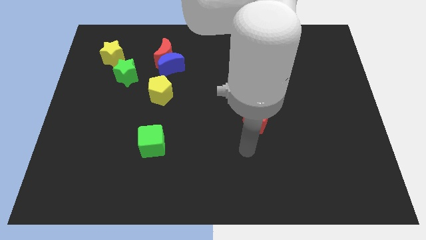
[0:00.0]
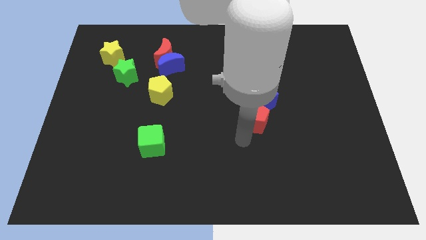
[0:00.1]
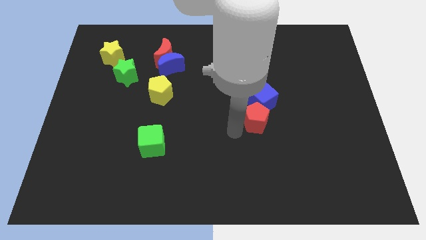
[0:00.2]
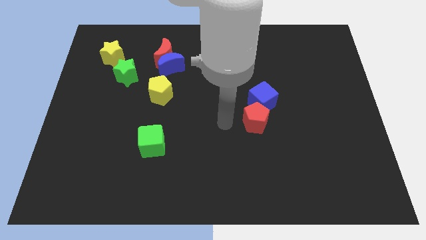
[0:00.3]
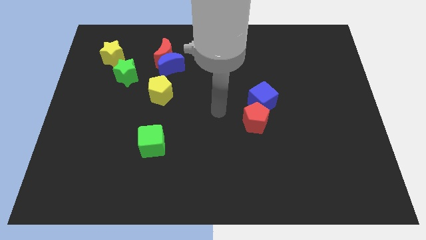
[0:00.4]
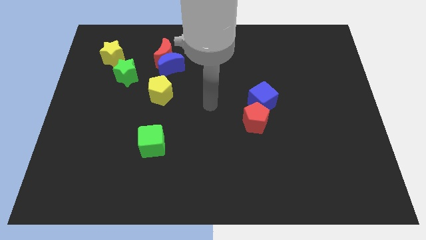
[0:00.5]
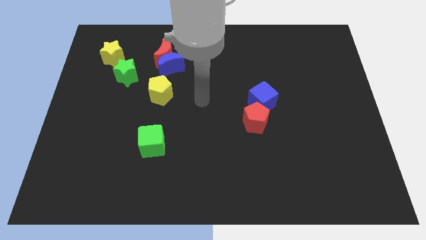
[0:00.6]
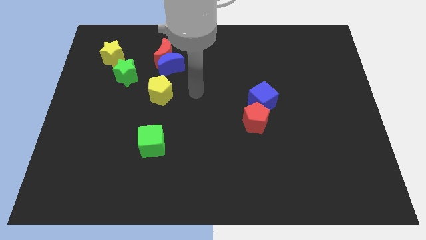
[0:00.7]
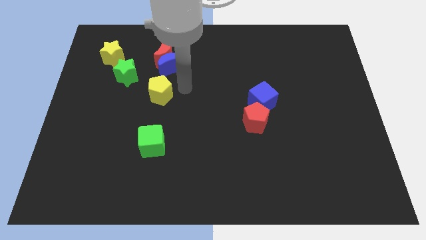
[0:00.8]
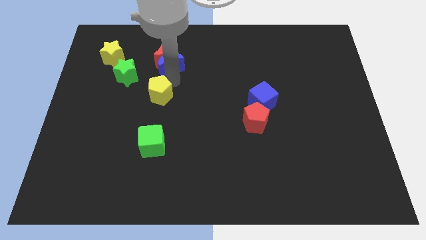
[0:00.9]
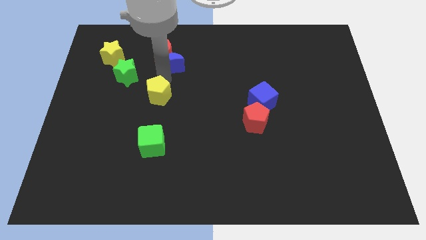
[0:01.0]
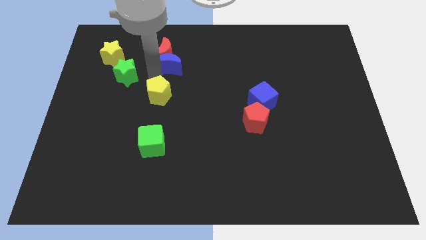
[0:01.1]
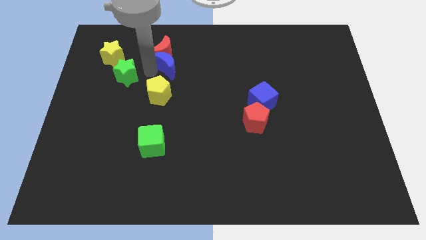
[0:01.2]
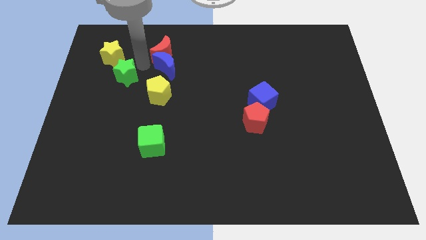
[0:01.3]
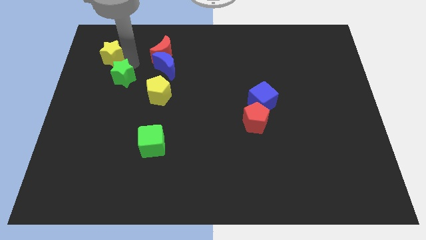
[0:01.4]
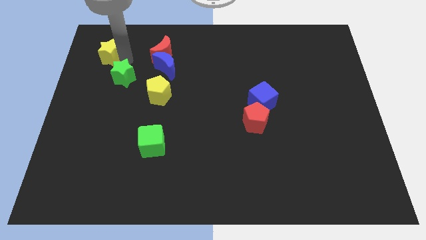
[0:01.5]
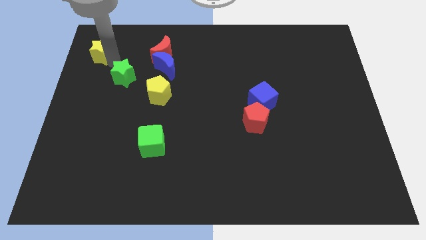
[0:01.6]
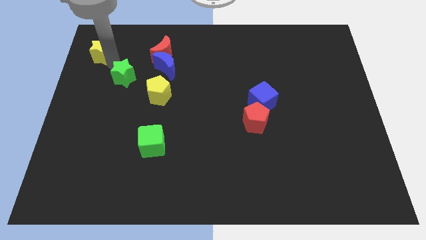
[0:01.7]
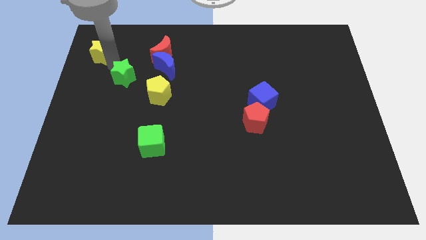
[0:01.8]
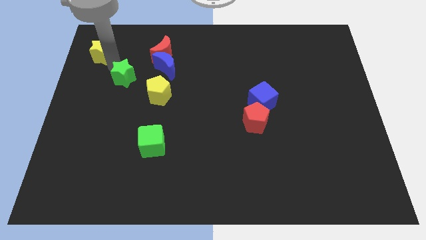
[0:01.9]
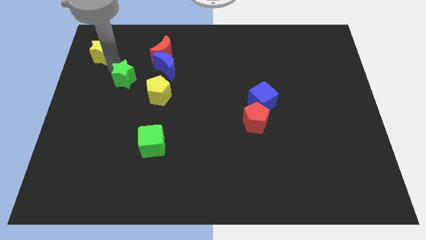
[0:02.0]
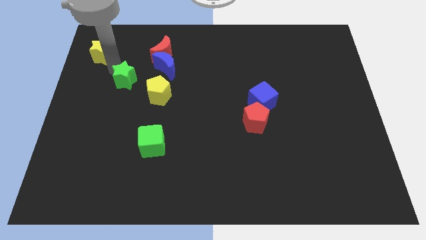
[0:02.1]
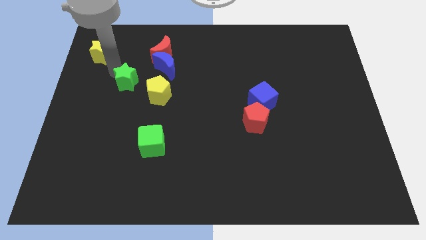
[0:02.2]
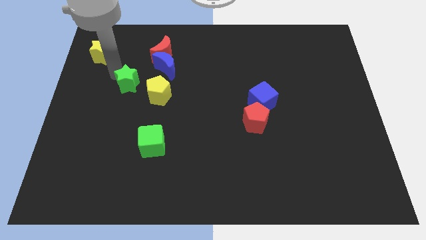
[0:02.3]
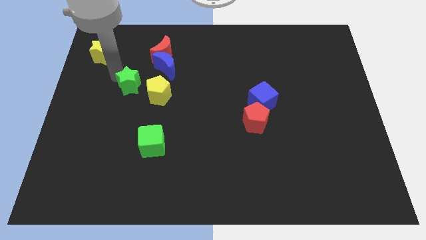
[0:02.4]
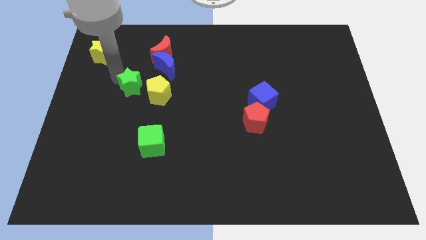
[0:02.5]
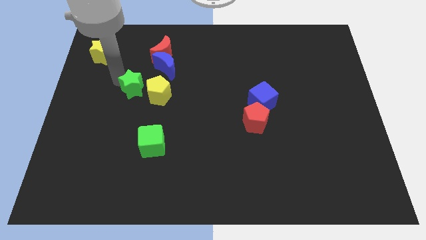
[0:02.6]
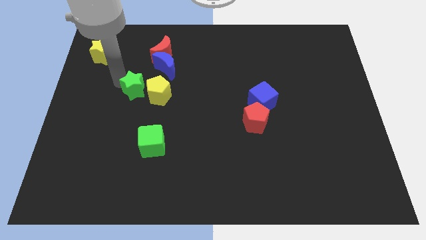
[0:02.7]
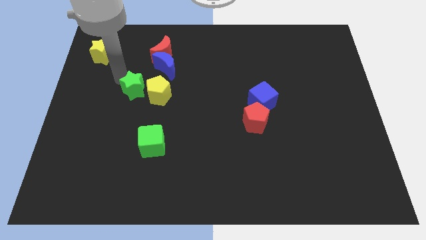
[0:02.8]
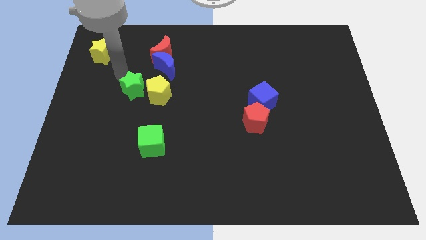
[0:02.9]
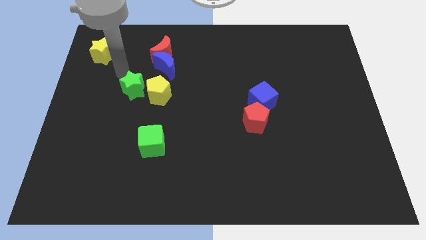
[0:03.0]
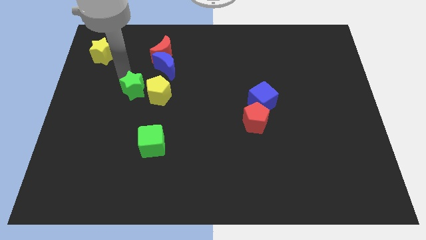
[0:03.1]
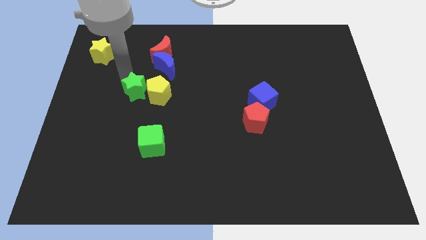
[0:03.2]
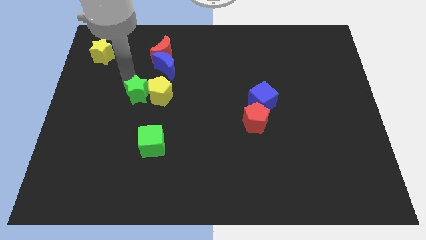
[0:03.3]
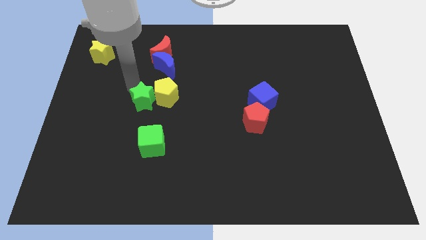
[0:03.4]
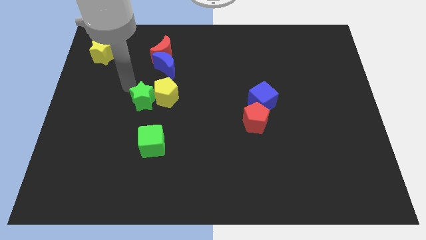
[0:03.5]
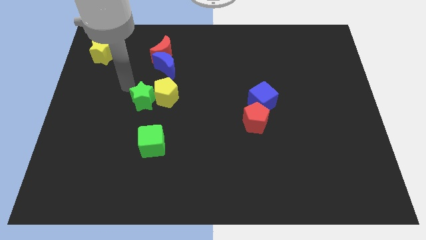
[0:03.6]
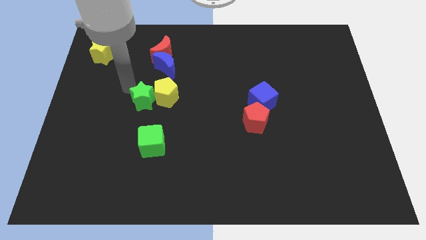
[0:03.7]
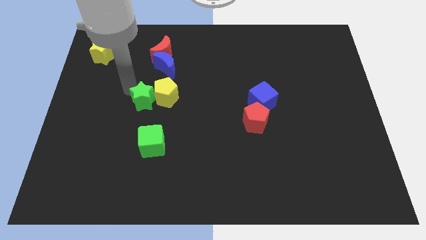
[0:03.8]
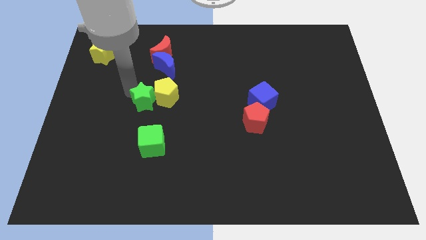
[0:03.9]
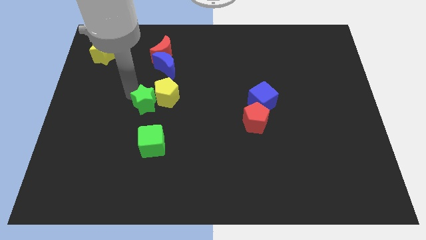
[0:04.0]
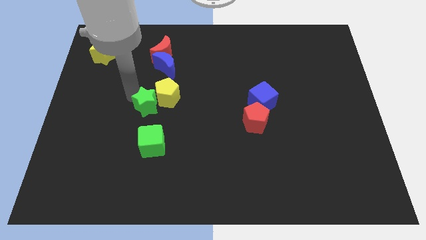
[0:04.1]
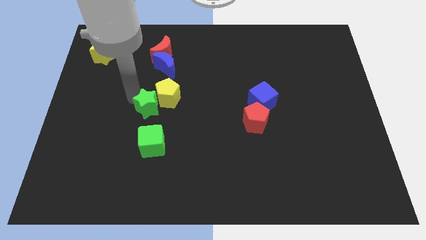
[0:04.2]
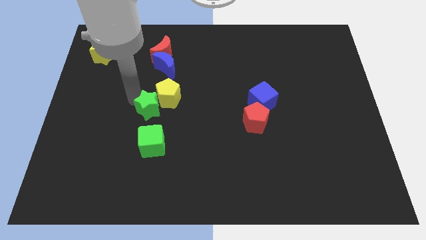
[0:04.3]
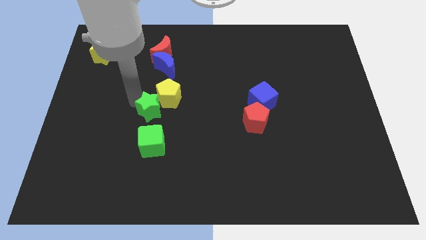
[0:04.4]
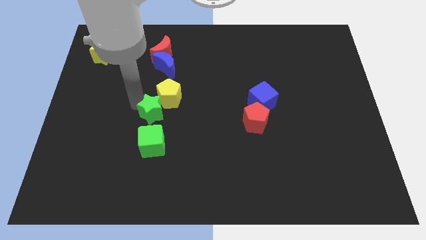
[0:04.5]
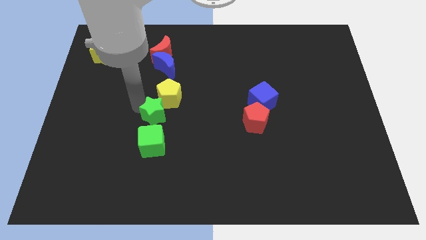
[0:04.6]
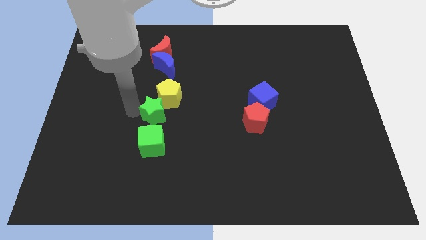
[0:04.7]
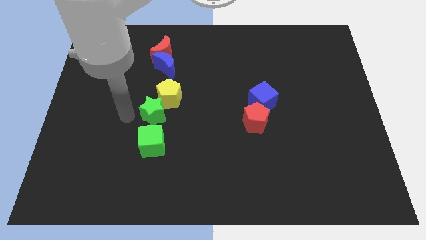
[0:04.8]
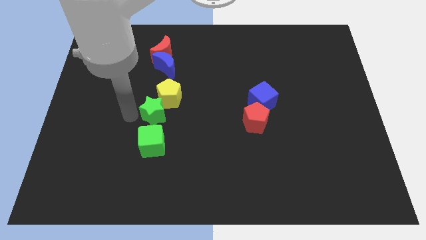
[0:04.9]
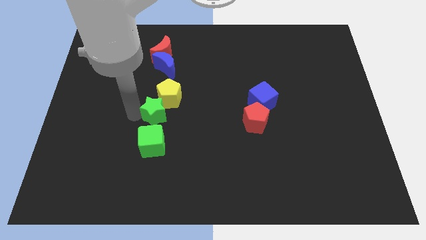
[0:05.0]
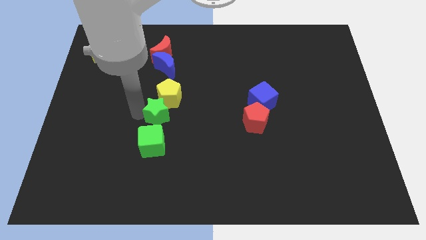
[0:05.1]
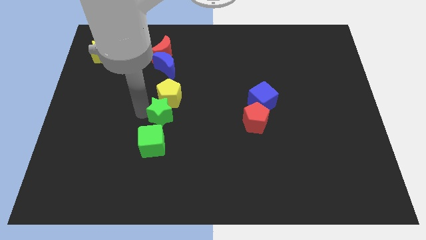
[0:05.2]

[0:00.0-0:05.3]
move the green star to the center
